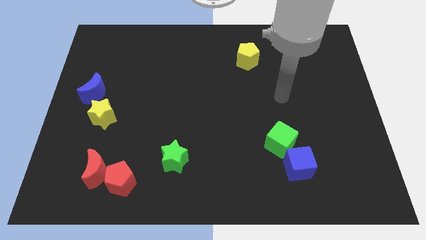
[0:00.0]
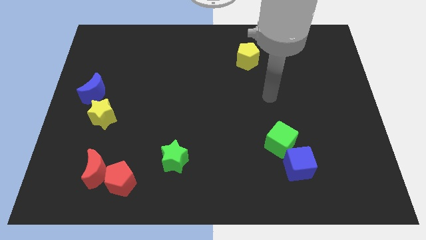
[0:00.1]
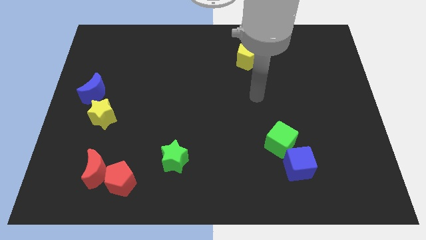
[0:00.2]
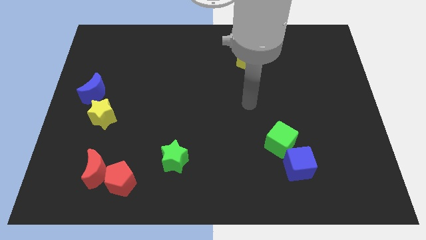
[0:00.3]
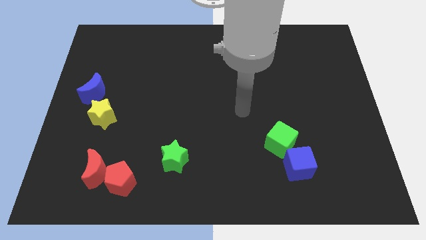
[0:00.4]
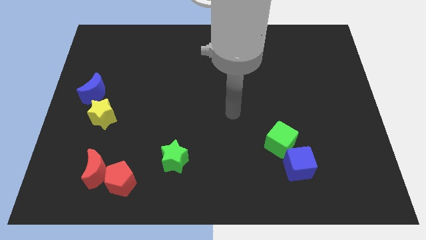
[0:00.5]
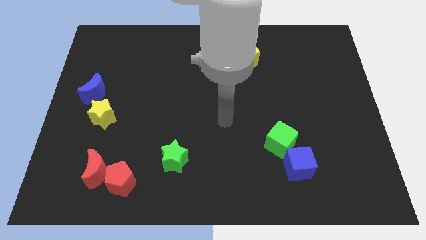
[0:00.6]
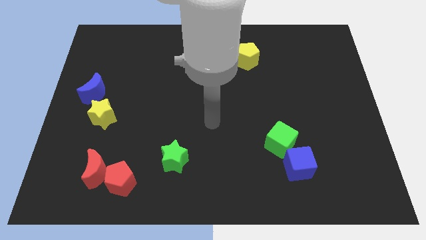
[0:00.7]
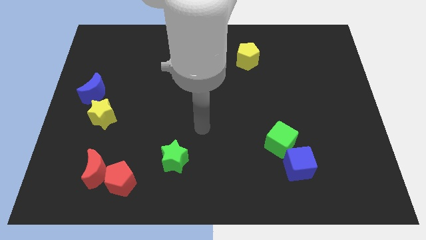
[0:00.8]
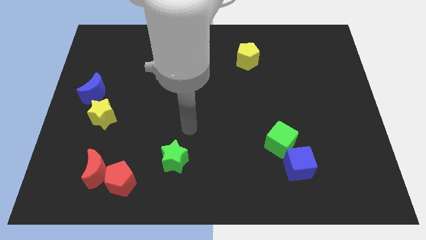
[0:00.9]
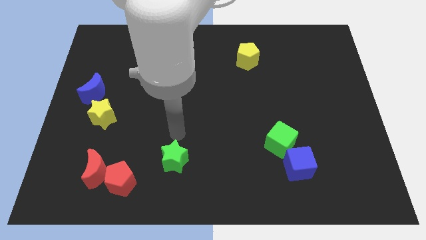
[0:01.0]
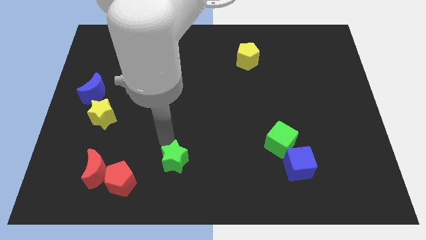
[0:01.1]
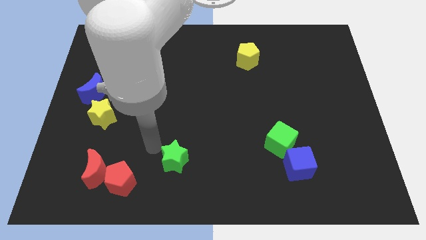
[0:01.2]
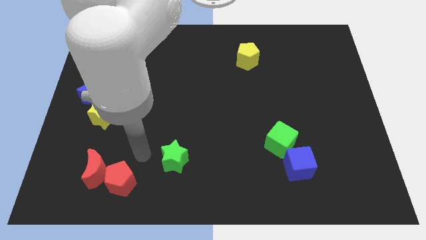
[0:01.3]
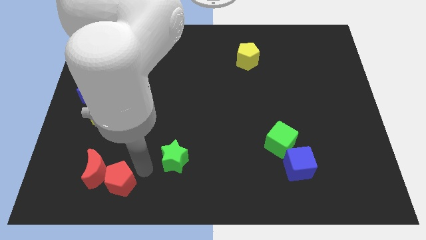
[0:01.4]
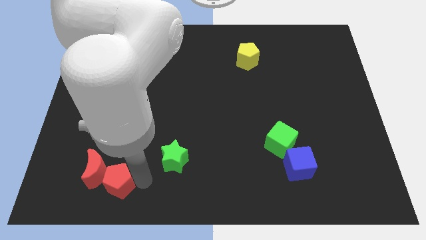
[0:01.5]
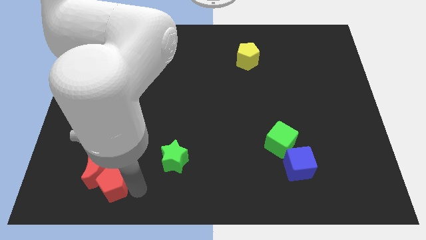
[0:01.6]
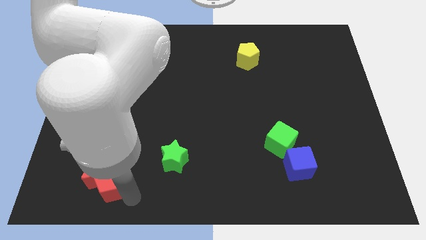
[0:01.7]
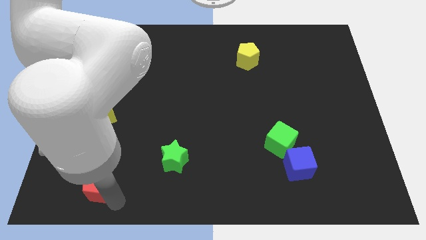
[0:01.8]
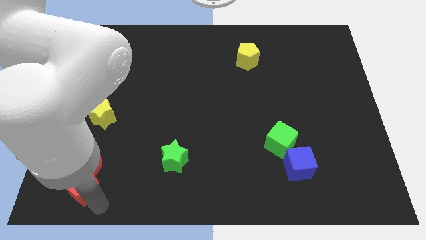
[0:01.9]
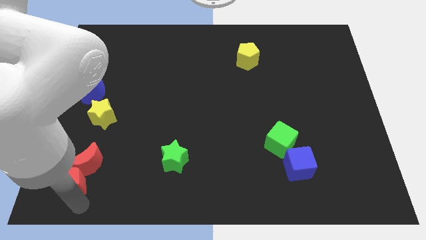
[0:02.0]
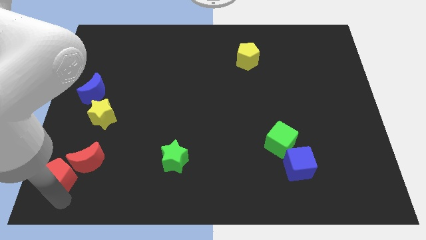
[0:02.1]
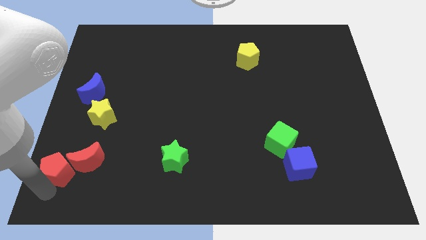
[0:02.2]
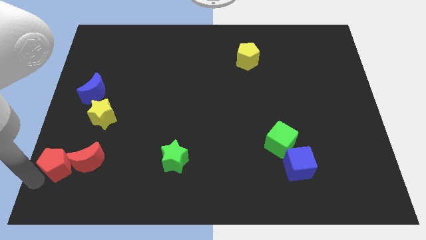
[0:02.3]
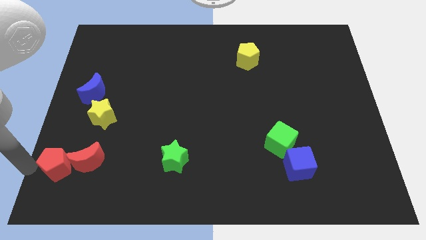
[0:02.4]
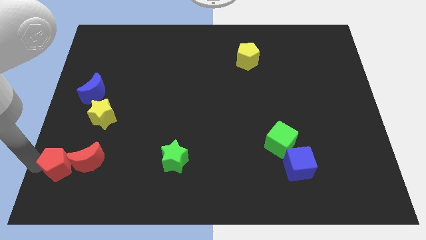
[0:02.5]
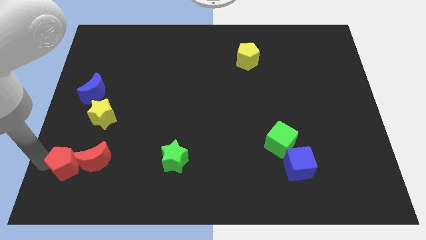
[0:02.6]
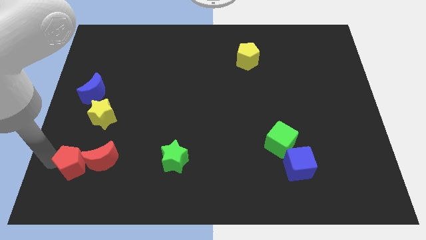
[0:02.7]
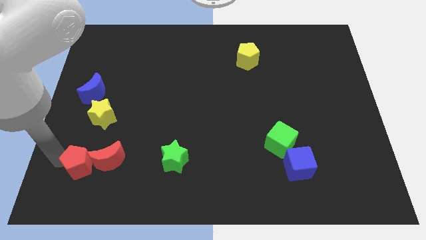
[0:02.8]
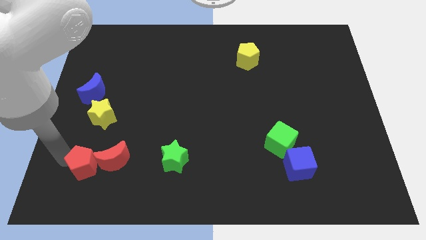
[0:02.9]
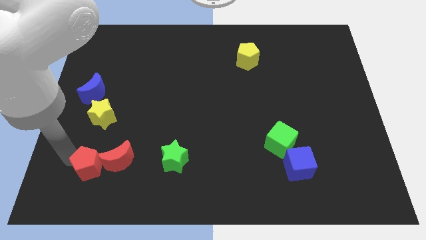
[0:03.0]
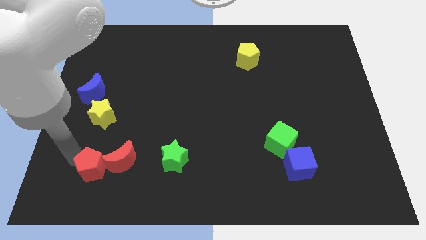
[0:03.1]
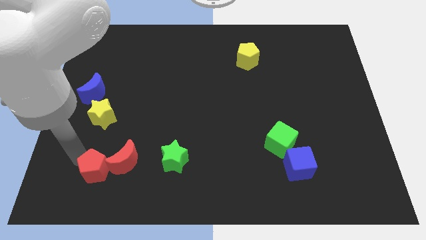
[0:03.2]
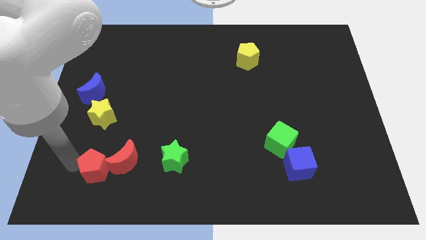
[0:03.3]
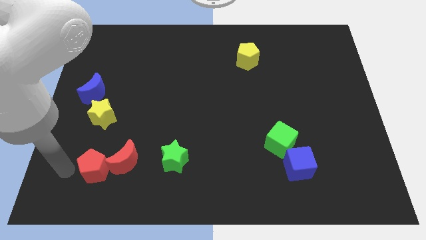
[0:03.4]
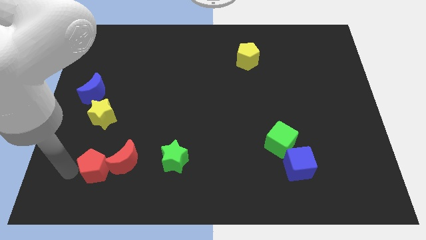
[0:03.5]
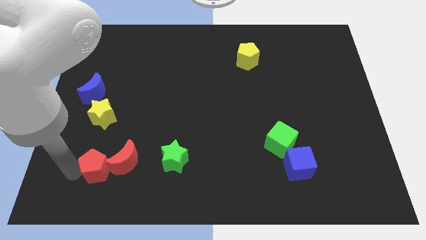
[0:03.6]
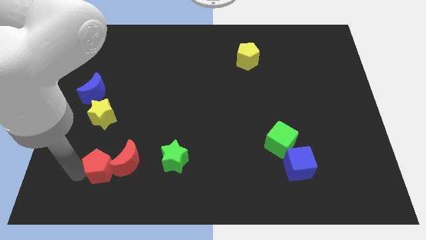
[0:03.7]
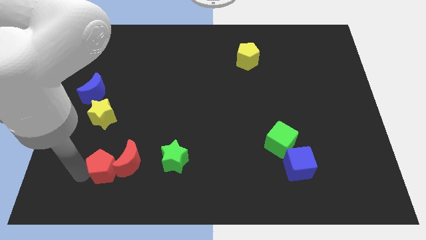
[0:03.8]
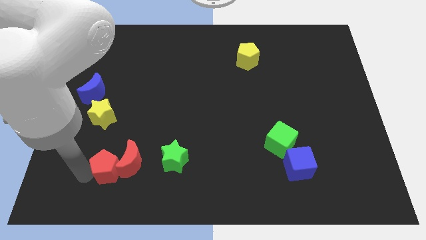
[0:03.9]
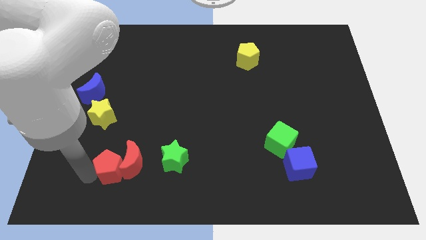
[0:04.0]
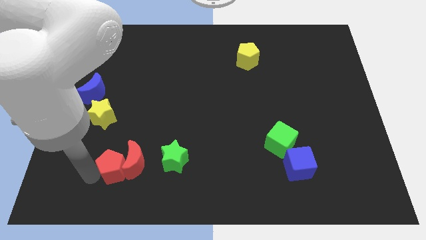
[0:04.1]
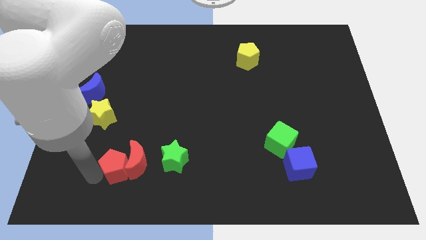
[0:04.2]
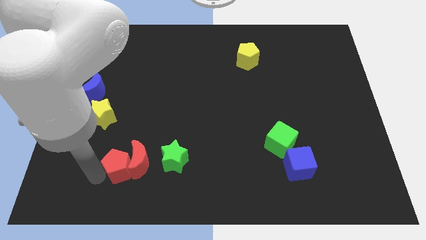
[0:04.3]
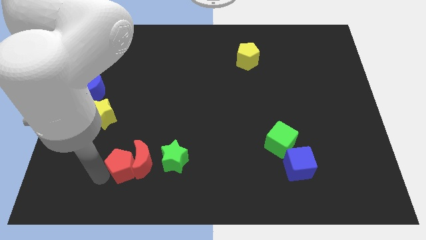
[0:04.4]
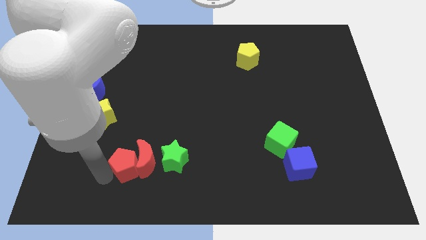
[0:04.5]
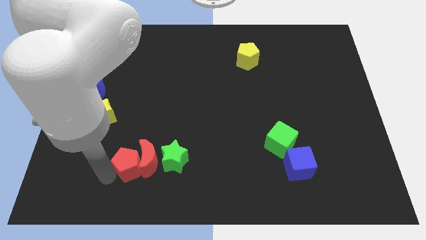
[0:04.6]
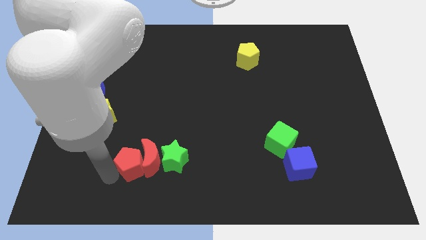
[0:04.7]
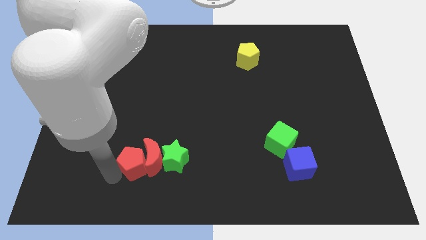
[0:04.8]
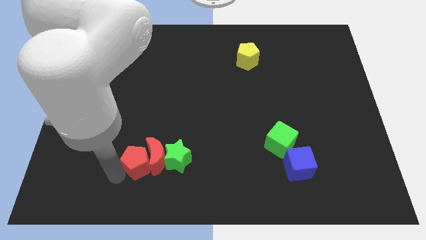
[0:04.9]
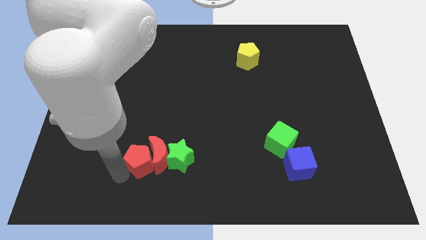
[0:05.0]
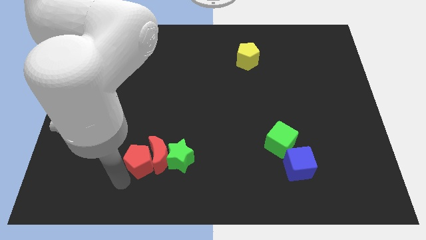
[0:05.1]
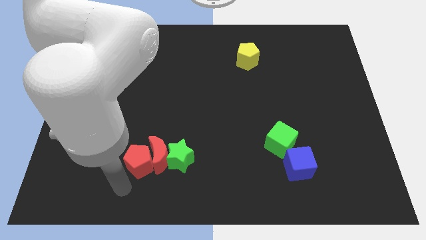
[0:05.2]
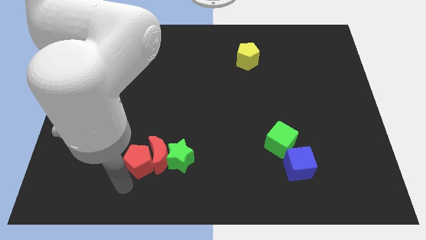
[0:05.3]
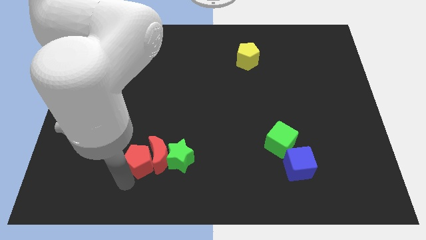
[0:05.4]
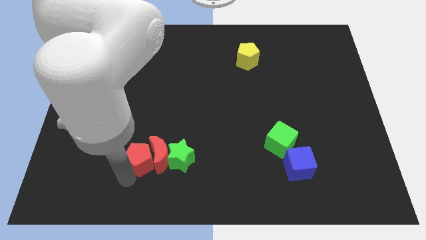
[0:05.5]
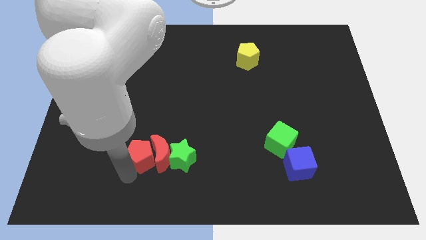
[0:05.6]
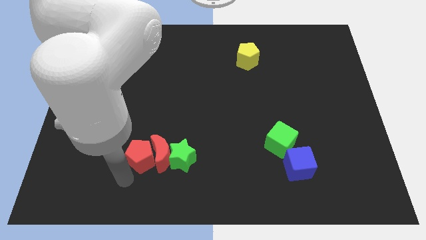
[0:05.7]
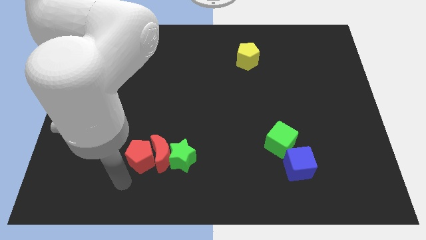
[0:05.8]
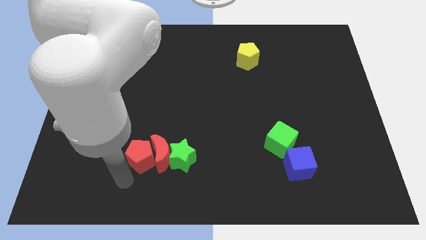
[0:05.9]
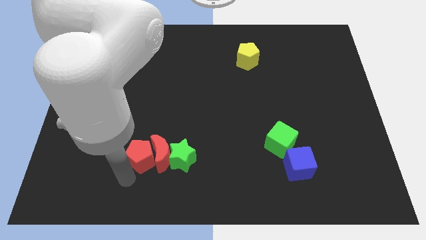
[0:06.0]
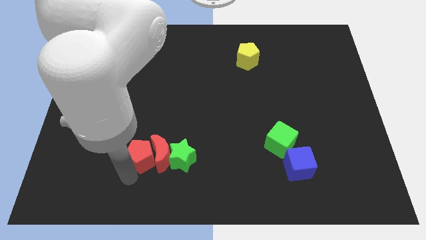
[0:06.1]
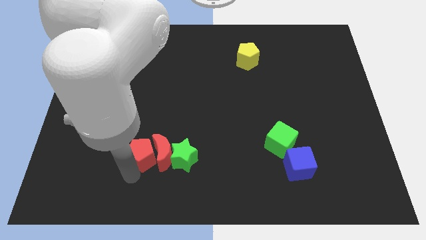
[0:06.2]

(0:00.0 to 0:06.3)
slightly slide the red pentagon up and then right

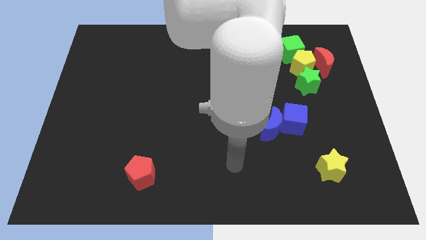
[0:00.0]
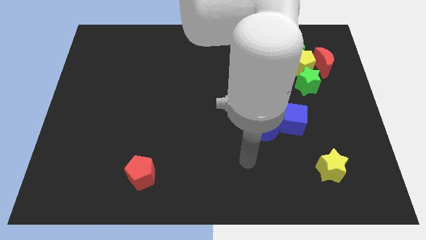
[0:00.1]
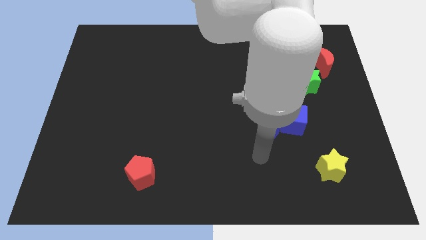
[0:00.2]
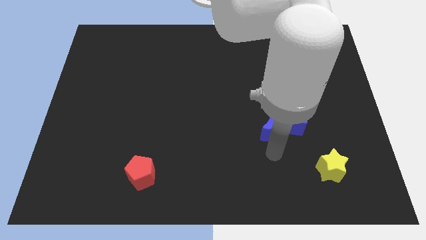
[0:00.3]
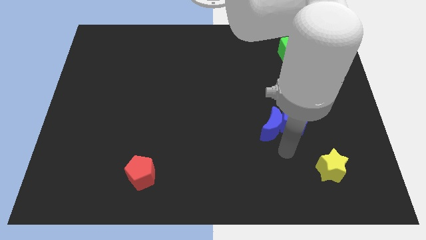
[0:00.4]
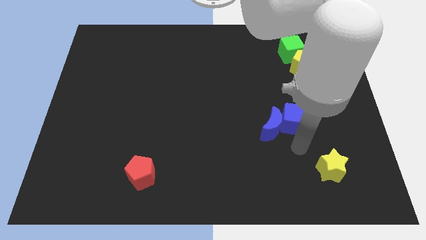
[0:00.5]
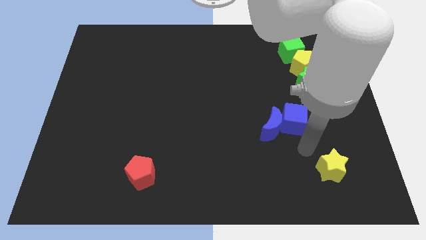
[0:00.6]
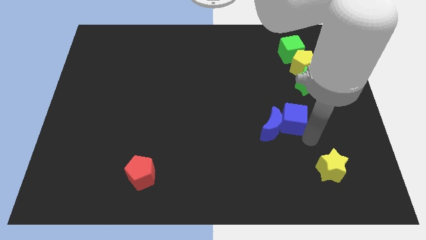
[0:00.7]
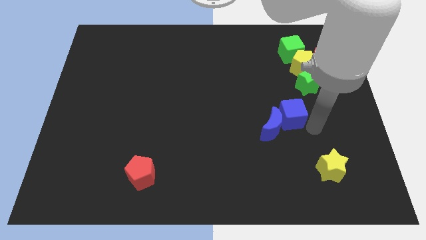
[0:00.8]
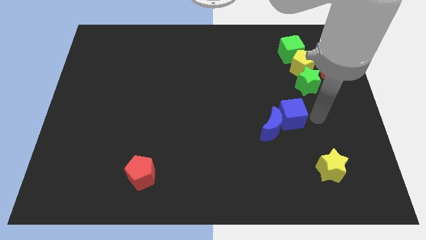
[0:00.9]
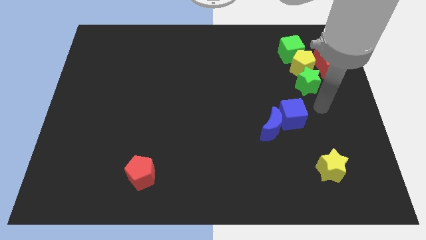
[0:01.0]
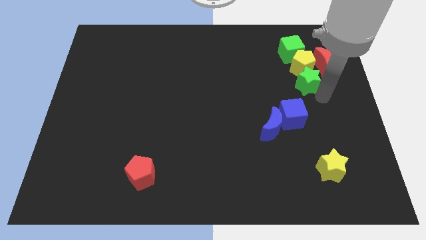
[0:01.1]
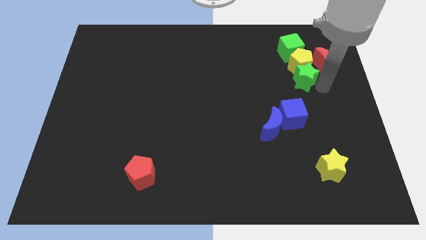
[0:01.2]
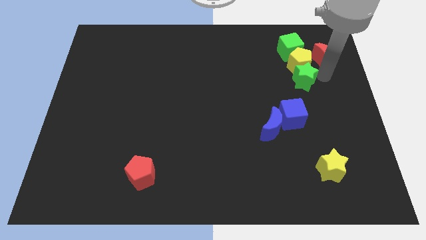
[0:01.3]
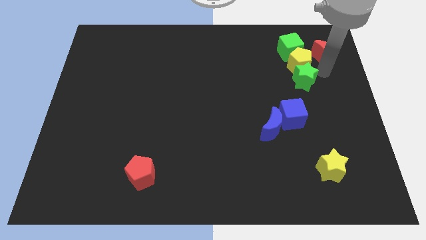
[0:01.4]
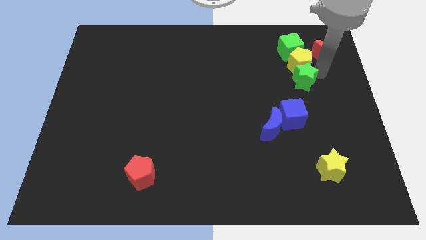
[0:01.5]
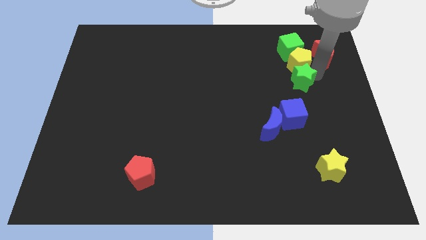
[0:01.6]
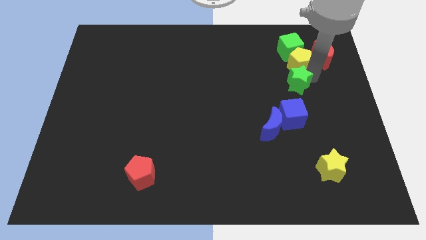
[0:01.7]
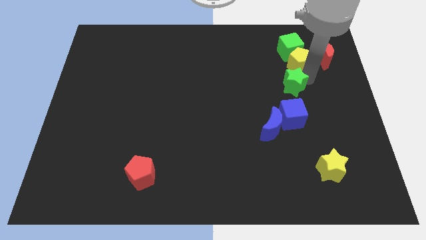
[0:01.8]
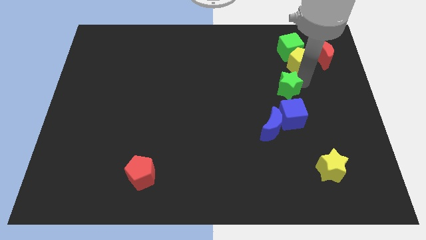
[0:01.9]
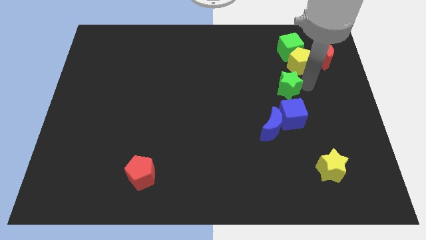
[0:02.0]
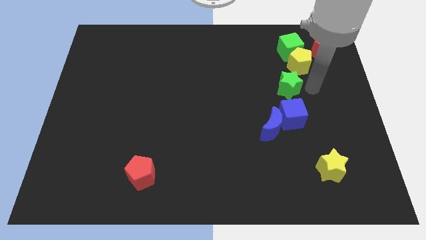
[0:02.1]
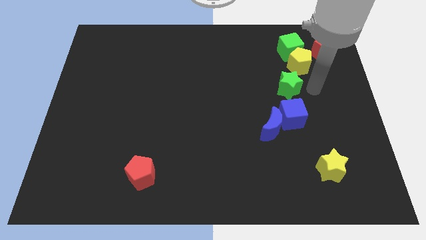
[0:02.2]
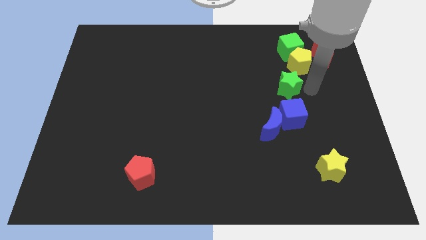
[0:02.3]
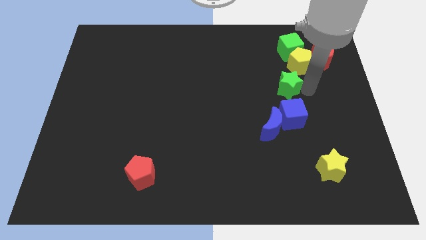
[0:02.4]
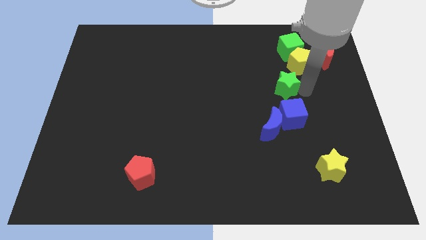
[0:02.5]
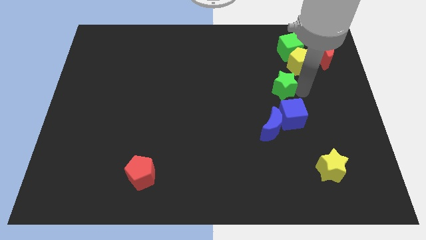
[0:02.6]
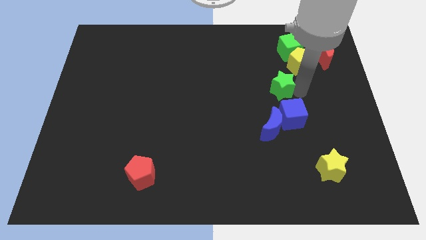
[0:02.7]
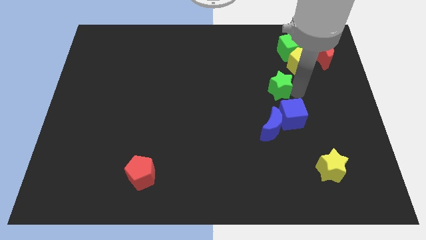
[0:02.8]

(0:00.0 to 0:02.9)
slide the green star left somewhat
